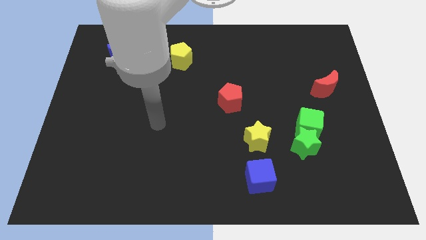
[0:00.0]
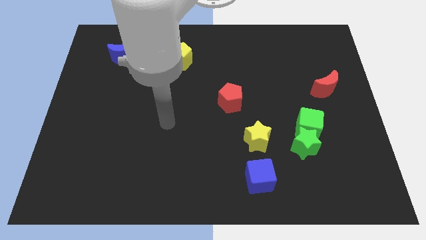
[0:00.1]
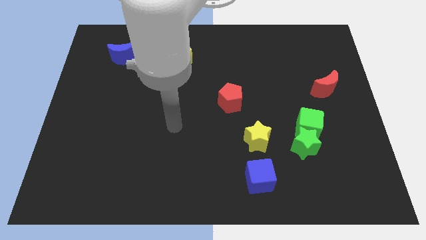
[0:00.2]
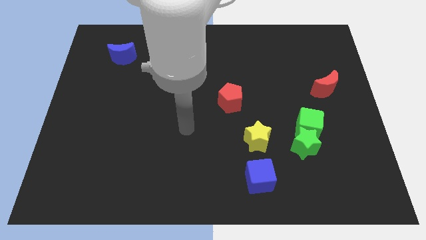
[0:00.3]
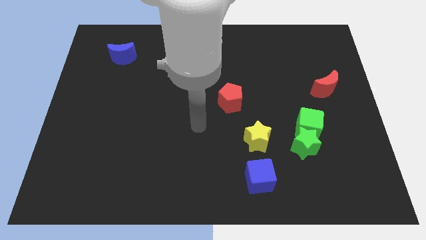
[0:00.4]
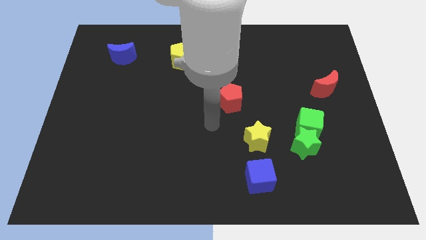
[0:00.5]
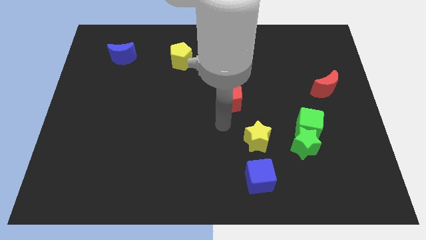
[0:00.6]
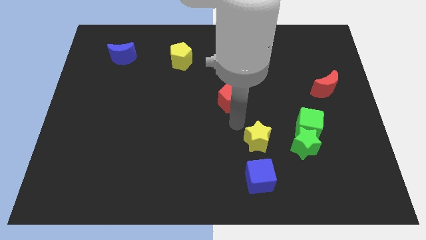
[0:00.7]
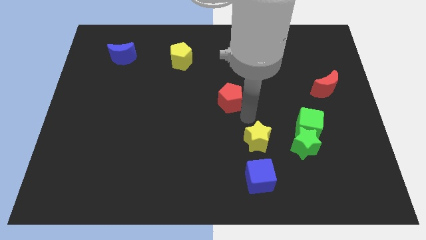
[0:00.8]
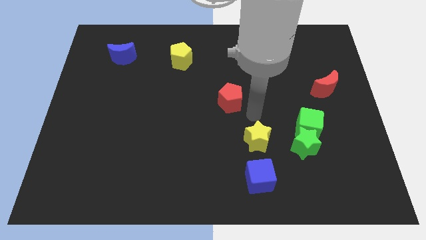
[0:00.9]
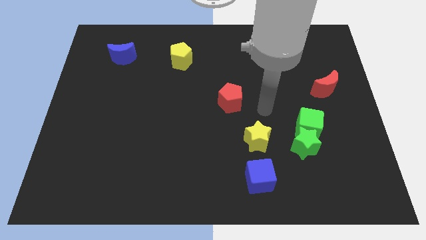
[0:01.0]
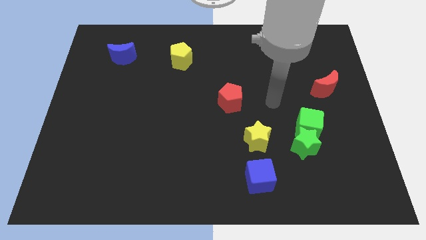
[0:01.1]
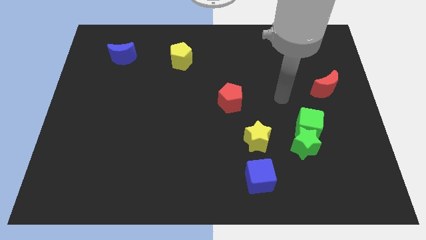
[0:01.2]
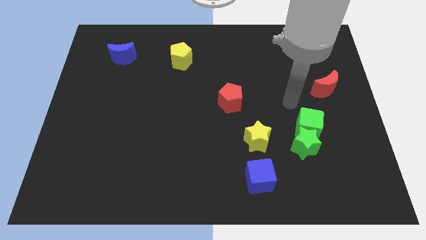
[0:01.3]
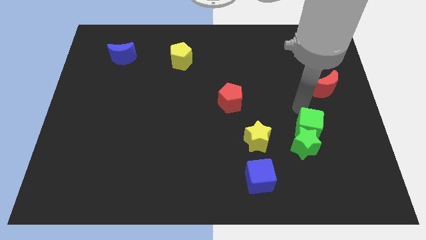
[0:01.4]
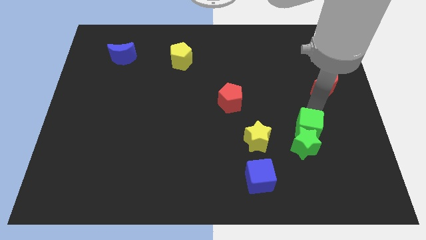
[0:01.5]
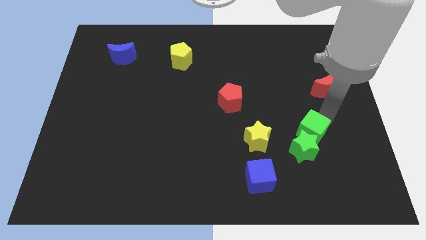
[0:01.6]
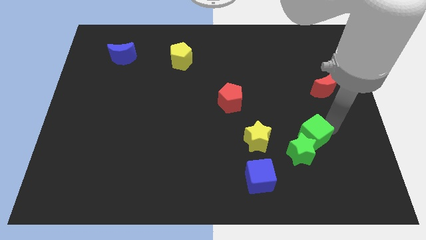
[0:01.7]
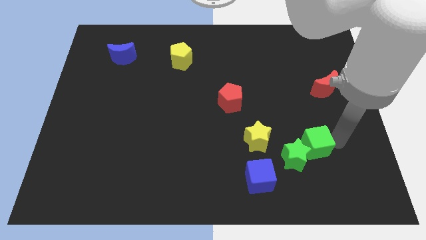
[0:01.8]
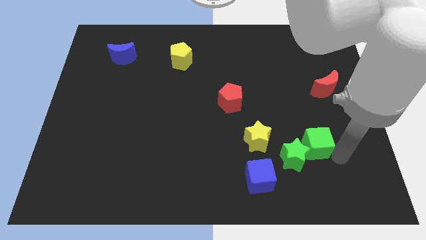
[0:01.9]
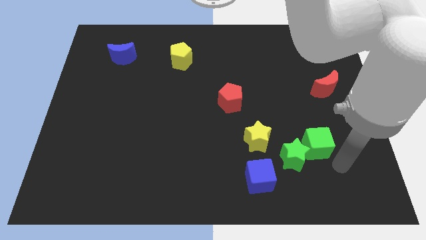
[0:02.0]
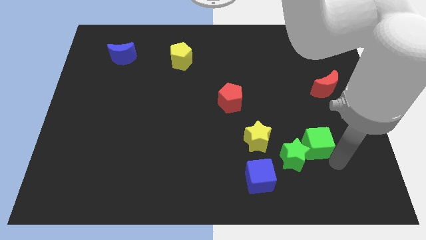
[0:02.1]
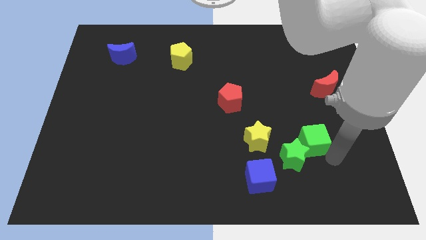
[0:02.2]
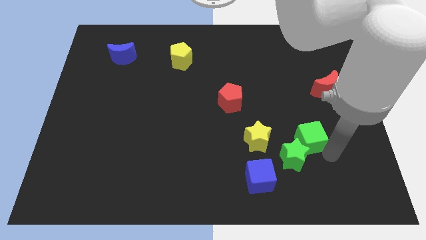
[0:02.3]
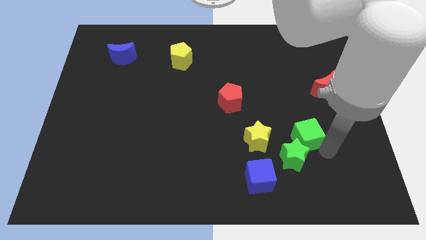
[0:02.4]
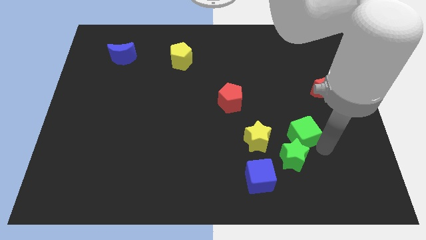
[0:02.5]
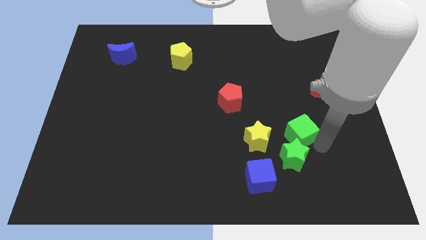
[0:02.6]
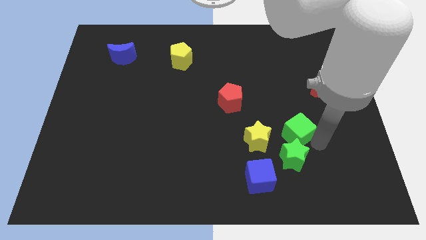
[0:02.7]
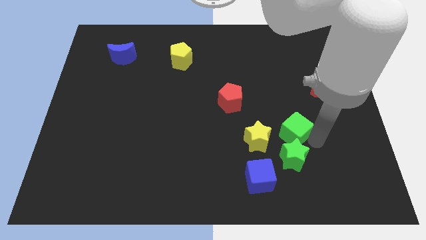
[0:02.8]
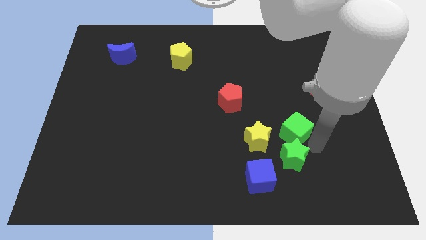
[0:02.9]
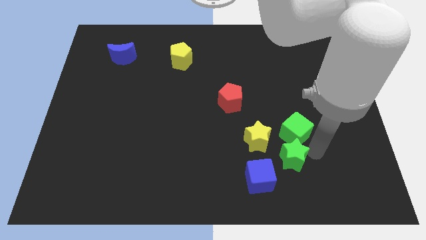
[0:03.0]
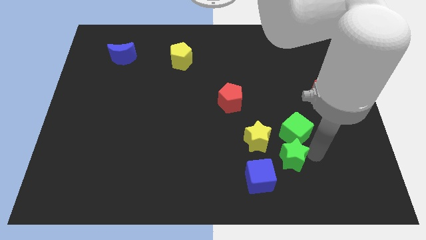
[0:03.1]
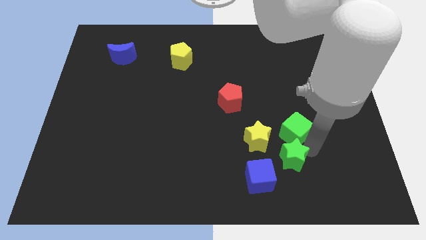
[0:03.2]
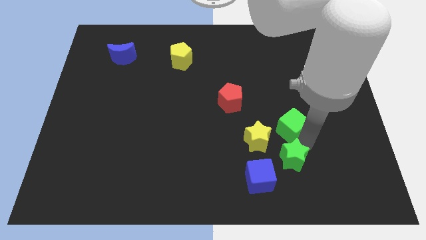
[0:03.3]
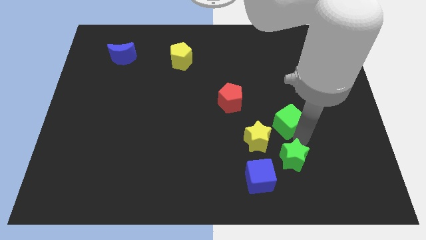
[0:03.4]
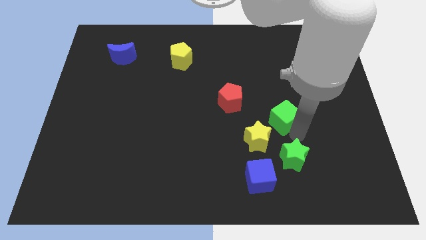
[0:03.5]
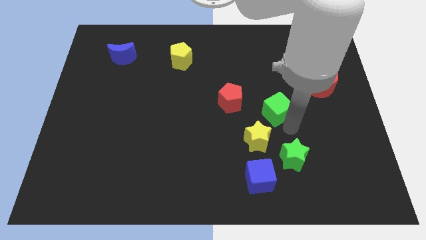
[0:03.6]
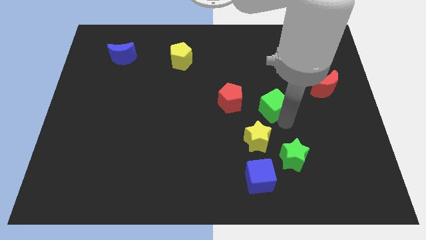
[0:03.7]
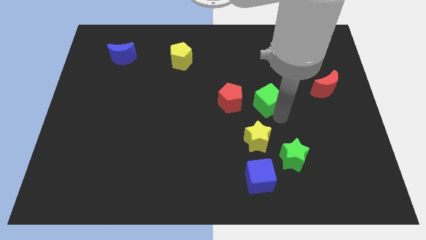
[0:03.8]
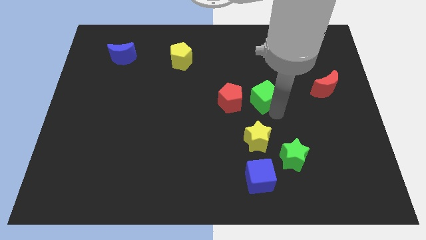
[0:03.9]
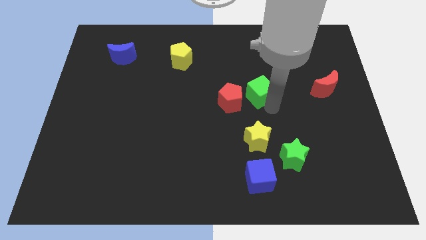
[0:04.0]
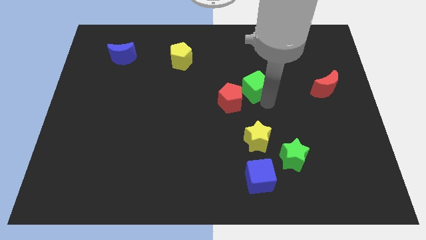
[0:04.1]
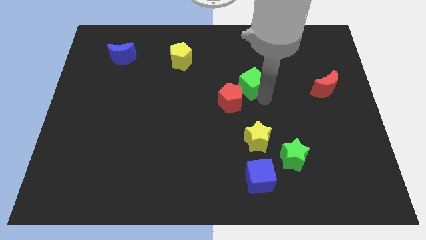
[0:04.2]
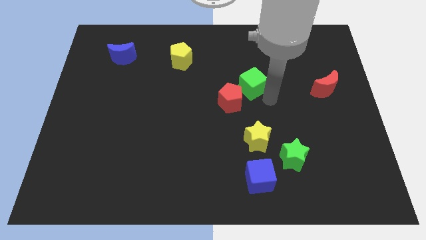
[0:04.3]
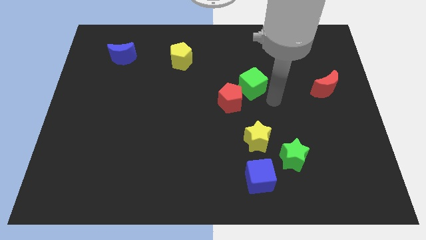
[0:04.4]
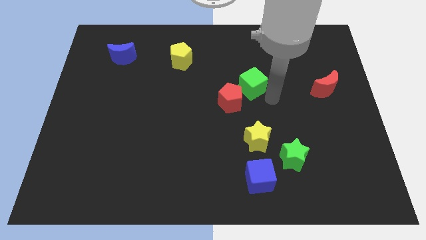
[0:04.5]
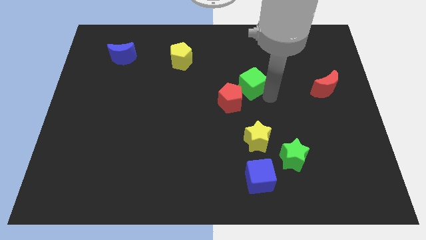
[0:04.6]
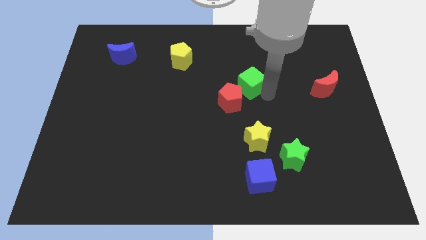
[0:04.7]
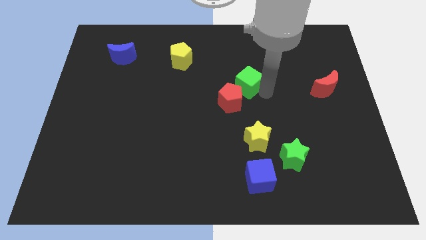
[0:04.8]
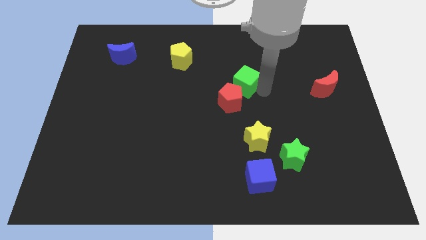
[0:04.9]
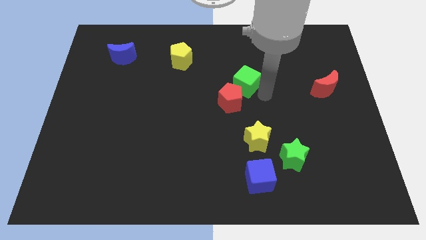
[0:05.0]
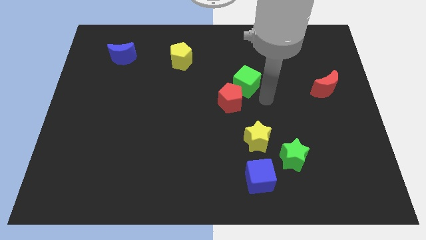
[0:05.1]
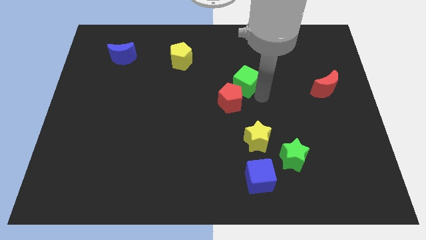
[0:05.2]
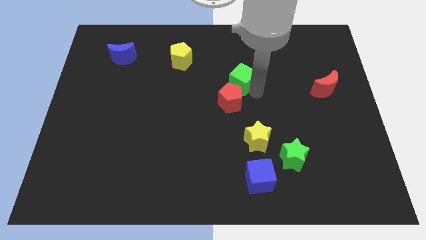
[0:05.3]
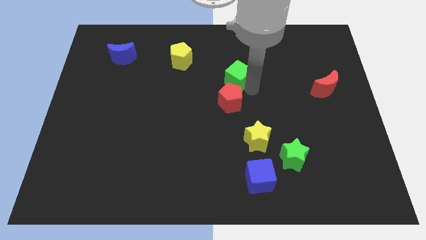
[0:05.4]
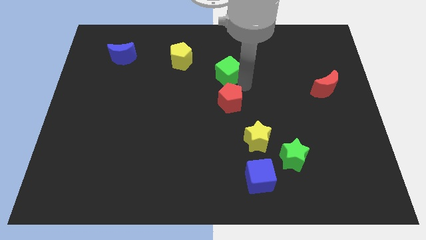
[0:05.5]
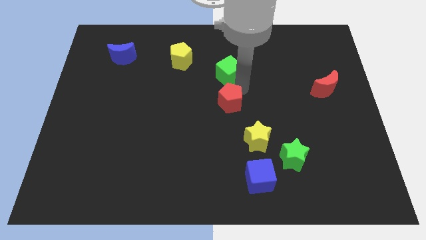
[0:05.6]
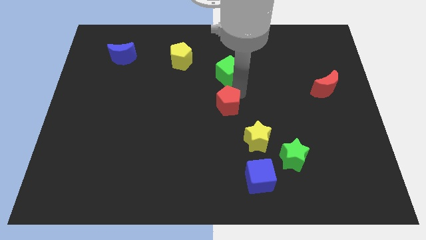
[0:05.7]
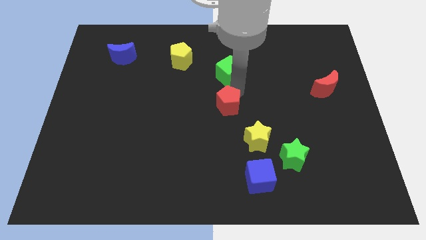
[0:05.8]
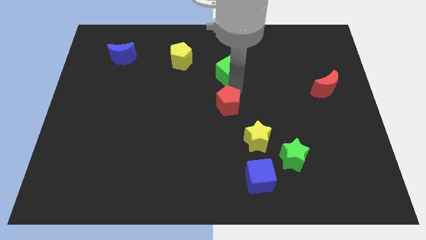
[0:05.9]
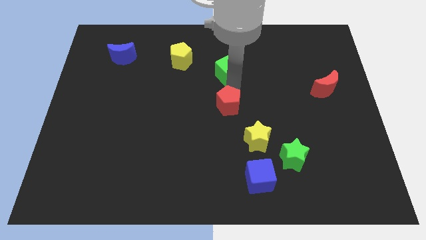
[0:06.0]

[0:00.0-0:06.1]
move the green cube right of the yellow pentagon

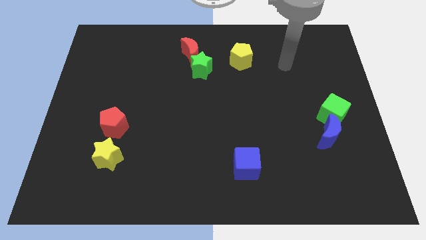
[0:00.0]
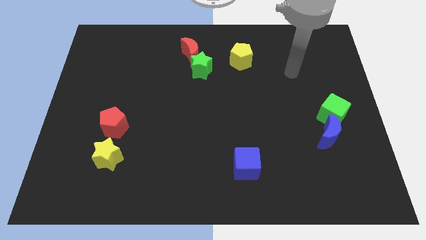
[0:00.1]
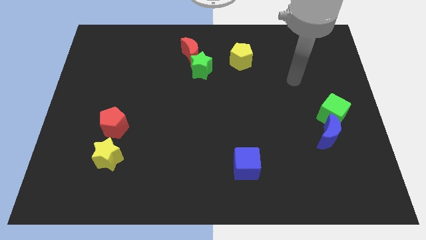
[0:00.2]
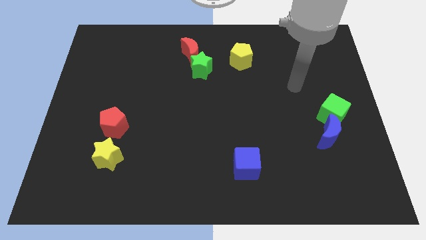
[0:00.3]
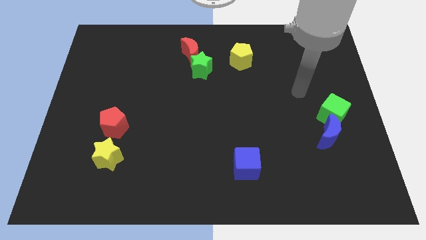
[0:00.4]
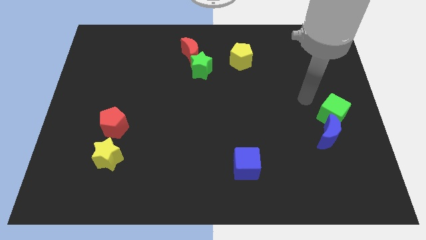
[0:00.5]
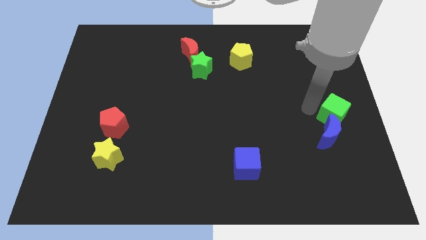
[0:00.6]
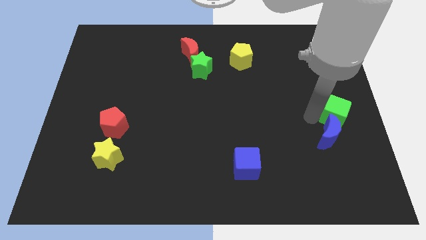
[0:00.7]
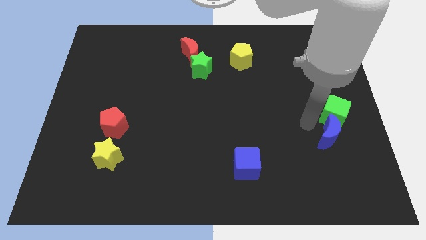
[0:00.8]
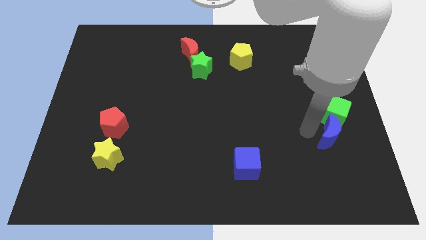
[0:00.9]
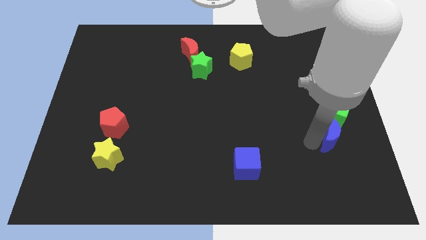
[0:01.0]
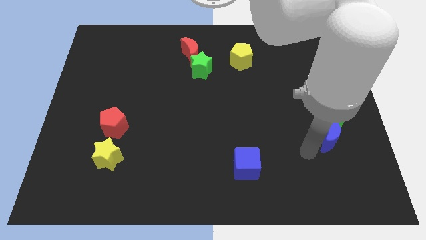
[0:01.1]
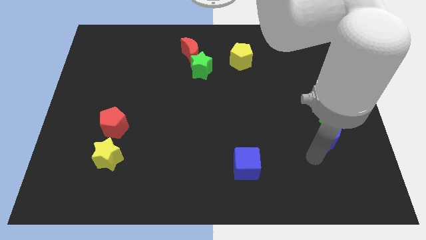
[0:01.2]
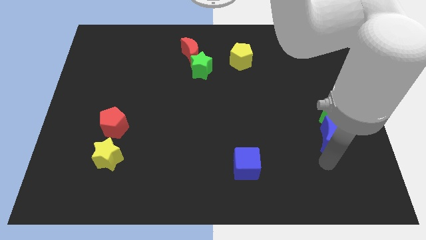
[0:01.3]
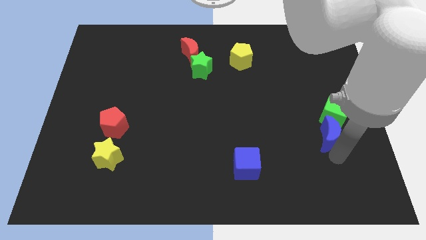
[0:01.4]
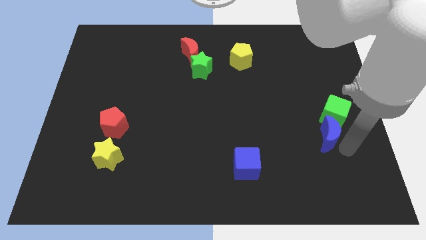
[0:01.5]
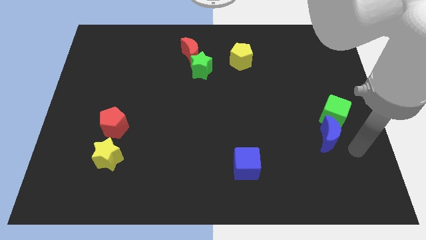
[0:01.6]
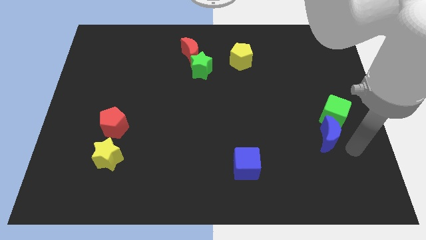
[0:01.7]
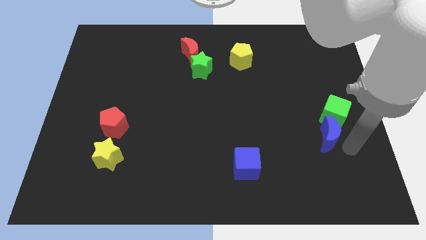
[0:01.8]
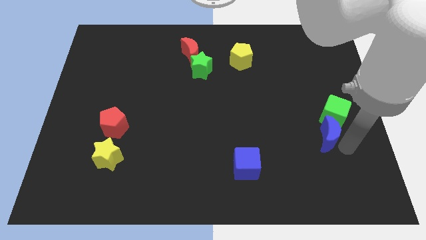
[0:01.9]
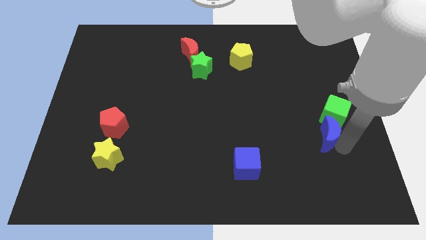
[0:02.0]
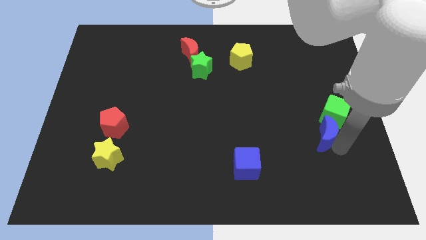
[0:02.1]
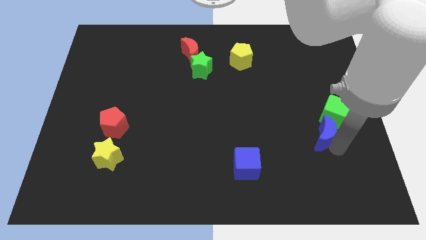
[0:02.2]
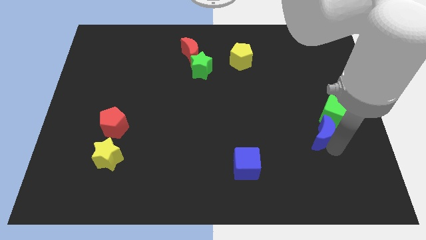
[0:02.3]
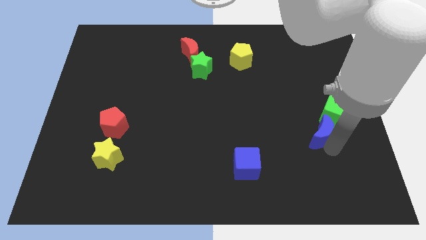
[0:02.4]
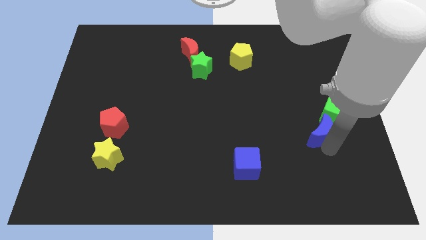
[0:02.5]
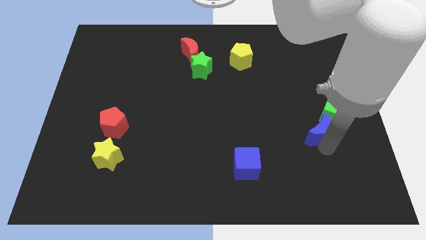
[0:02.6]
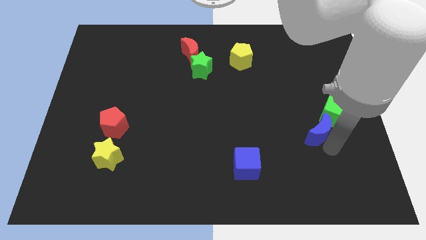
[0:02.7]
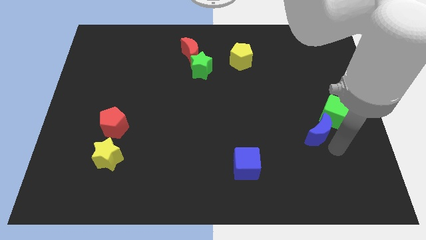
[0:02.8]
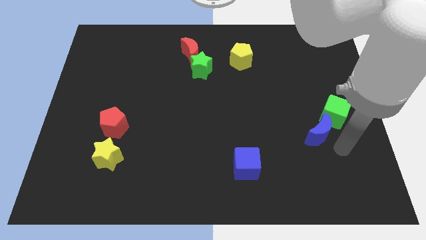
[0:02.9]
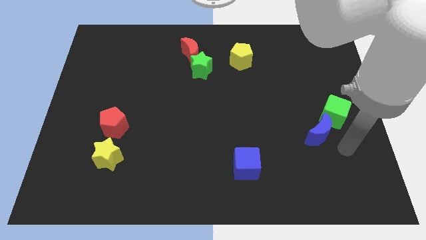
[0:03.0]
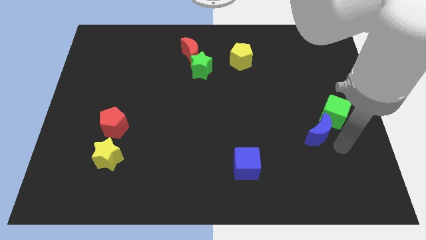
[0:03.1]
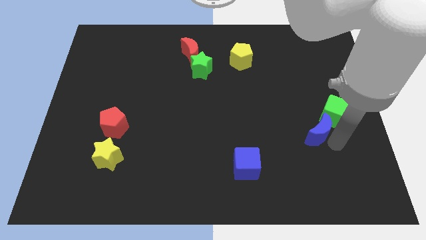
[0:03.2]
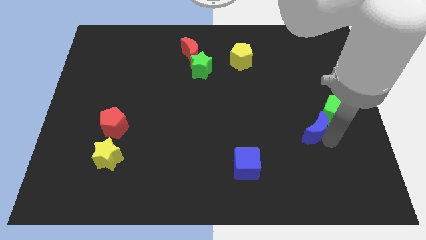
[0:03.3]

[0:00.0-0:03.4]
push the blue moon to the left side of the green cube
